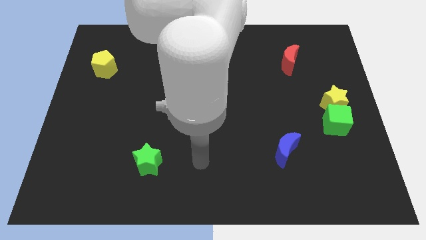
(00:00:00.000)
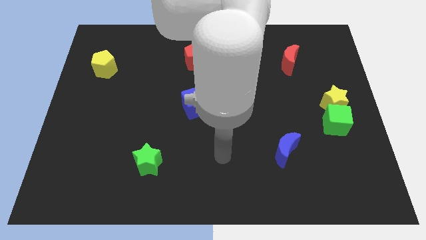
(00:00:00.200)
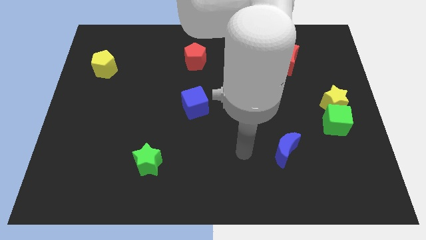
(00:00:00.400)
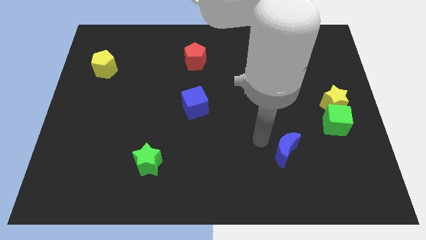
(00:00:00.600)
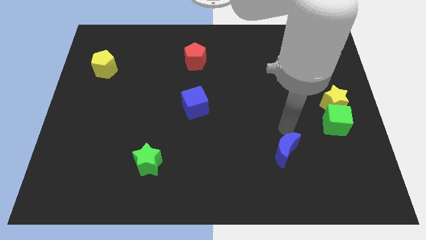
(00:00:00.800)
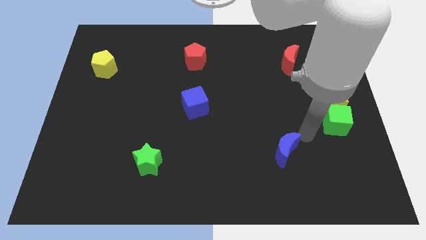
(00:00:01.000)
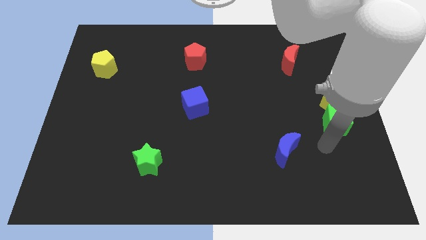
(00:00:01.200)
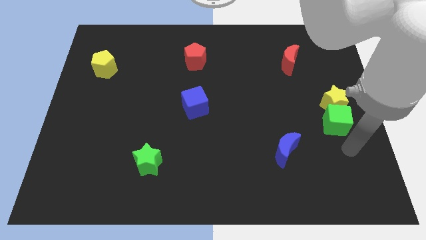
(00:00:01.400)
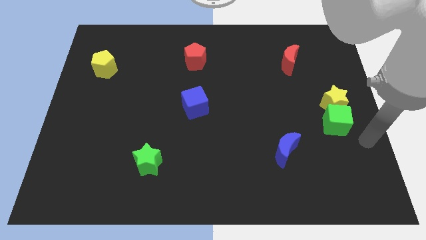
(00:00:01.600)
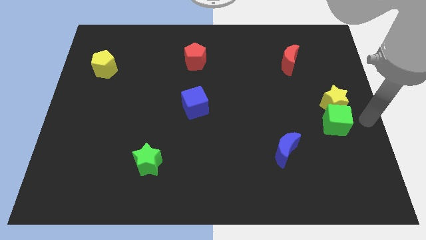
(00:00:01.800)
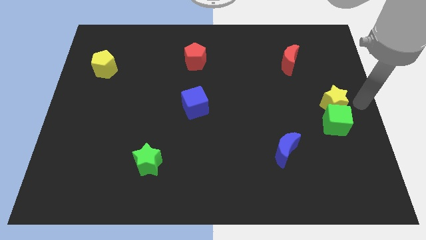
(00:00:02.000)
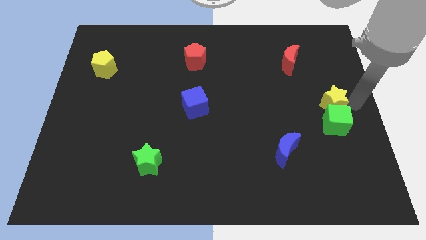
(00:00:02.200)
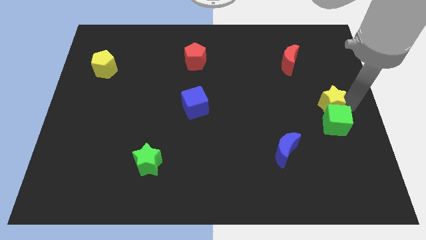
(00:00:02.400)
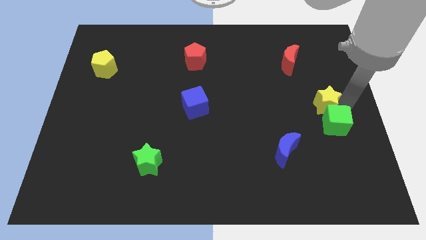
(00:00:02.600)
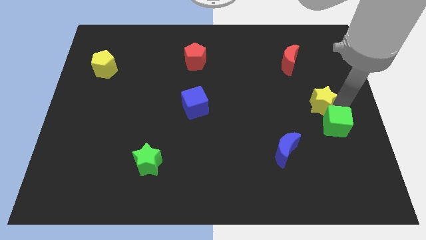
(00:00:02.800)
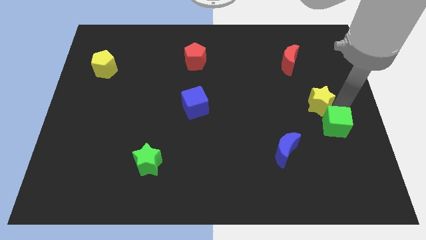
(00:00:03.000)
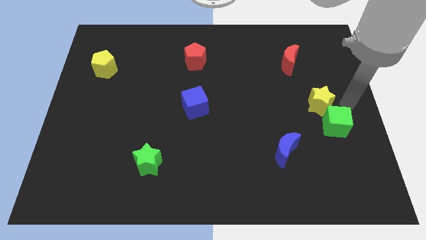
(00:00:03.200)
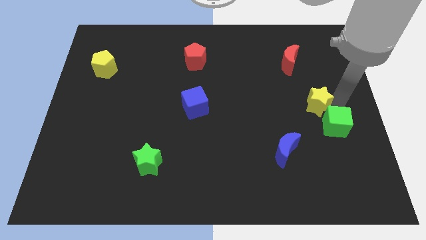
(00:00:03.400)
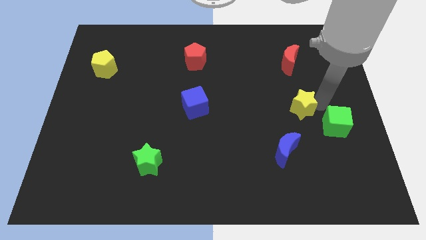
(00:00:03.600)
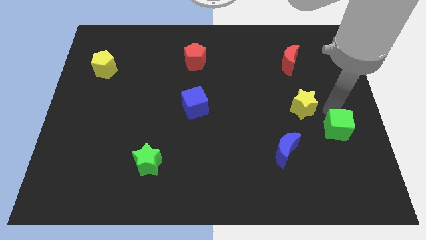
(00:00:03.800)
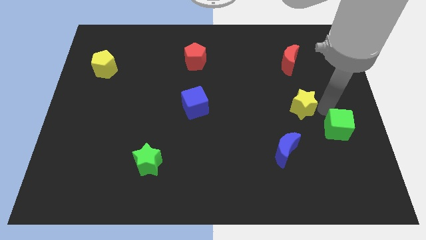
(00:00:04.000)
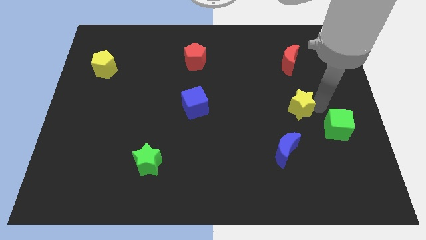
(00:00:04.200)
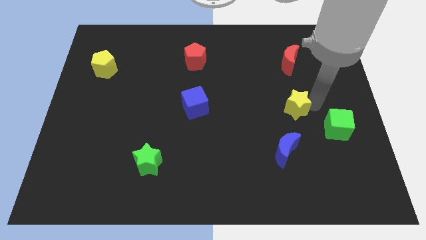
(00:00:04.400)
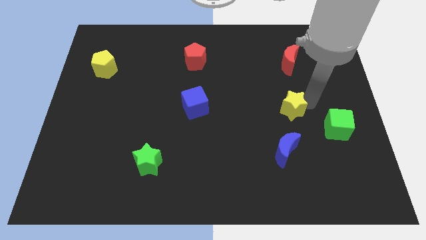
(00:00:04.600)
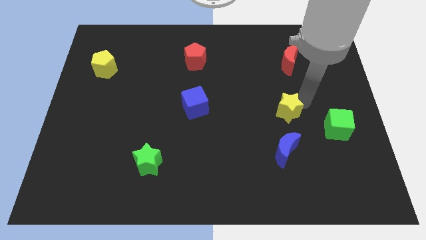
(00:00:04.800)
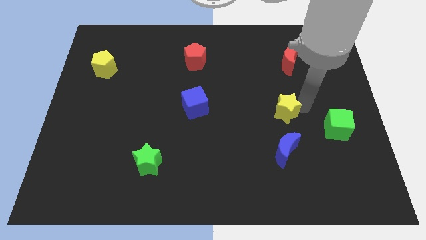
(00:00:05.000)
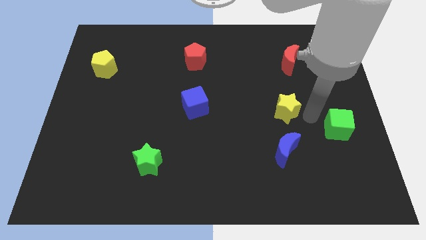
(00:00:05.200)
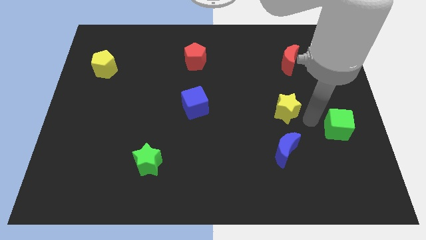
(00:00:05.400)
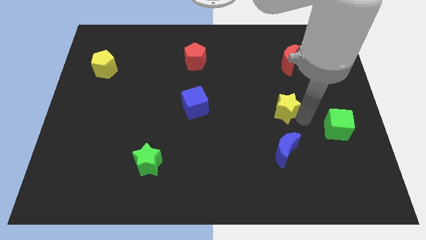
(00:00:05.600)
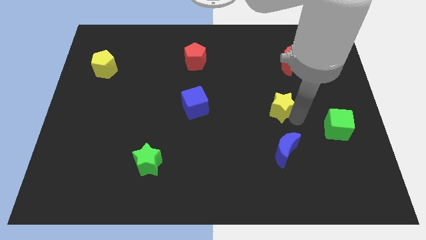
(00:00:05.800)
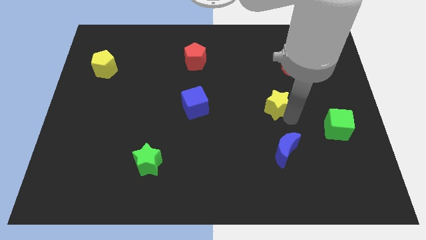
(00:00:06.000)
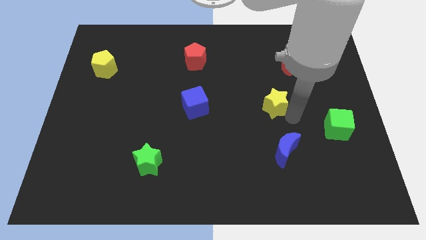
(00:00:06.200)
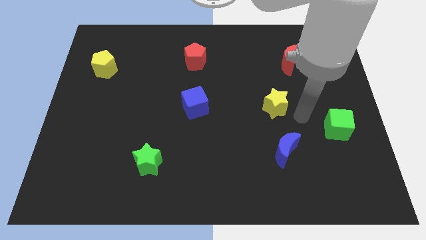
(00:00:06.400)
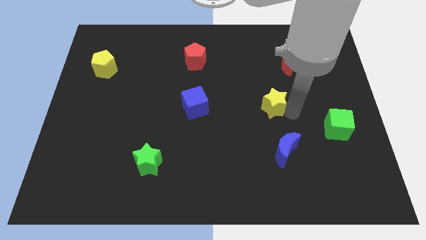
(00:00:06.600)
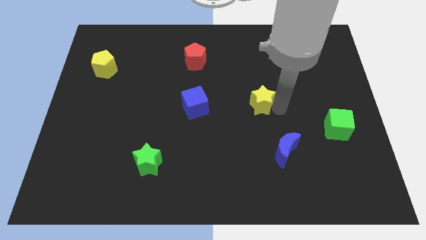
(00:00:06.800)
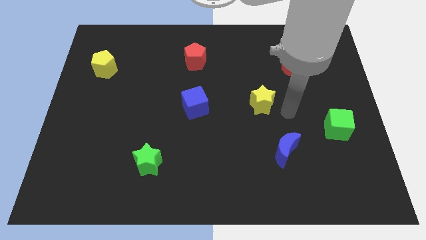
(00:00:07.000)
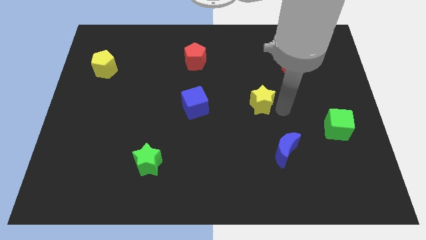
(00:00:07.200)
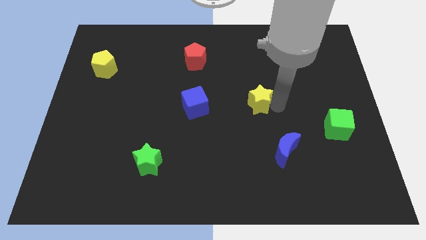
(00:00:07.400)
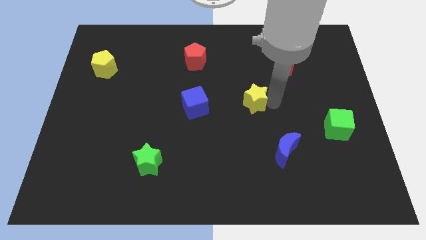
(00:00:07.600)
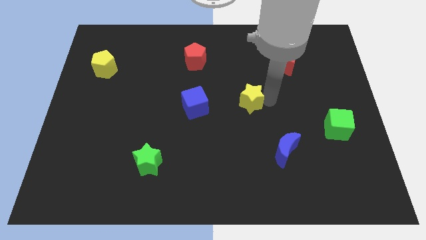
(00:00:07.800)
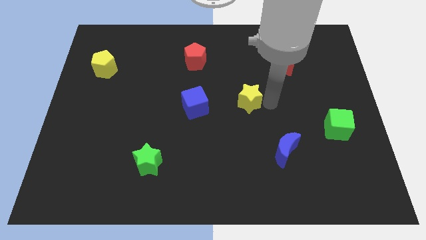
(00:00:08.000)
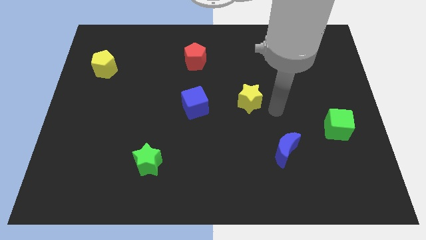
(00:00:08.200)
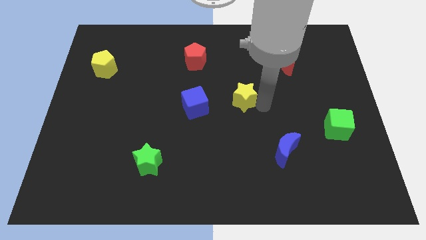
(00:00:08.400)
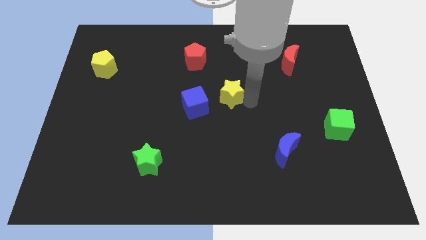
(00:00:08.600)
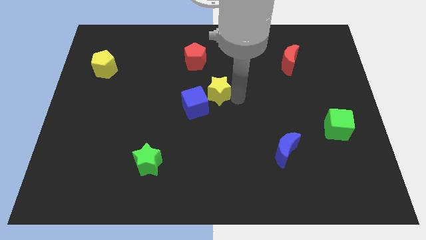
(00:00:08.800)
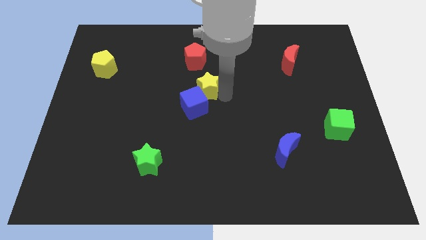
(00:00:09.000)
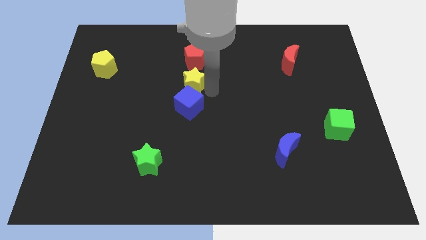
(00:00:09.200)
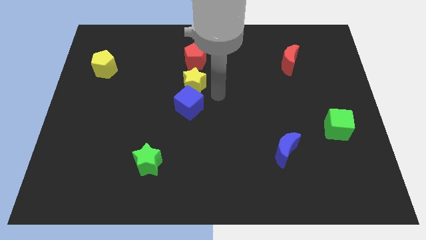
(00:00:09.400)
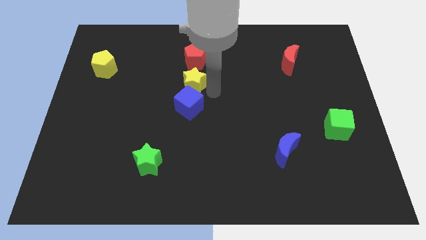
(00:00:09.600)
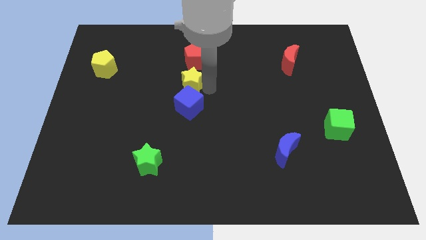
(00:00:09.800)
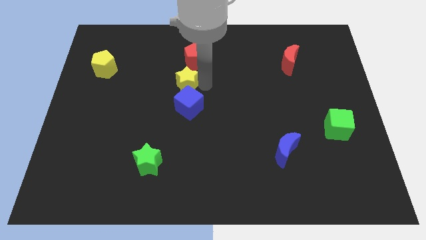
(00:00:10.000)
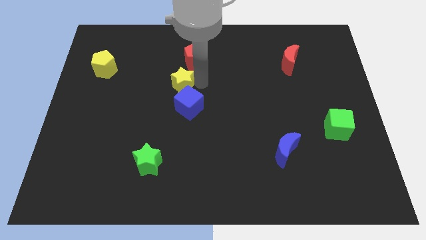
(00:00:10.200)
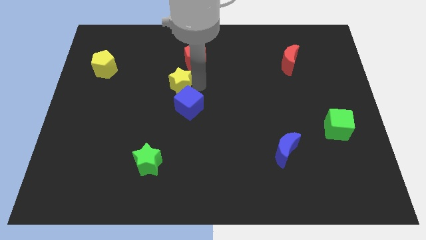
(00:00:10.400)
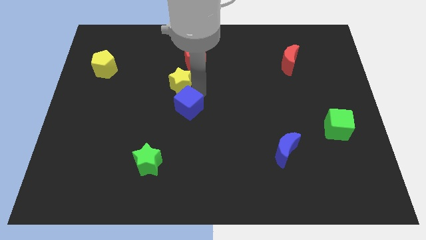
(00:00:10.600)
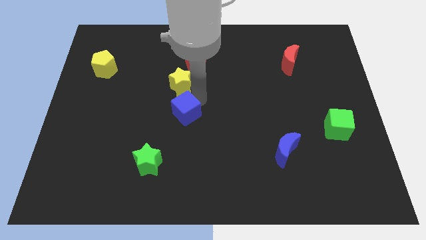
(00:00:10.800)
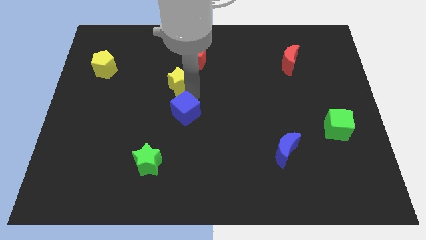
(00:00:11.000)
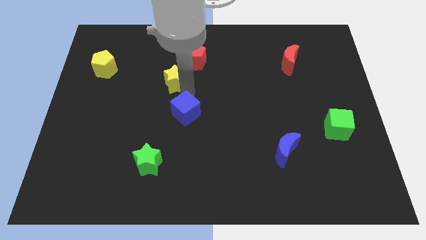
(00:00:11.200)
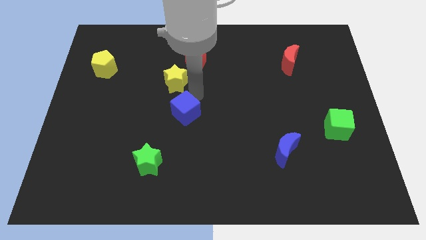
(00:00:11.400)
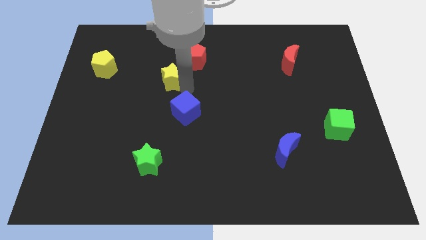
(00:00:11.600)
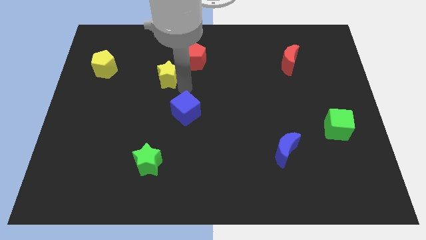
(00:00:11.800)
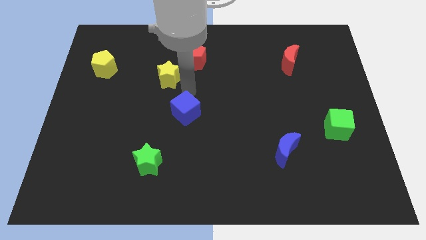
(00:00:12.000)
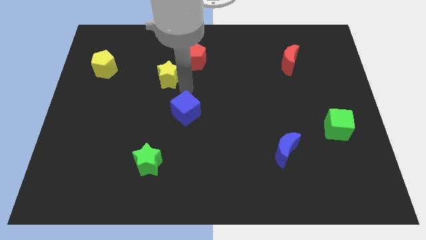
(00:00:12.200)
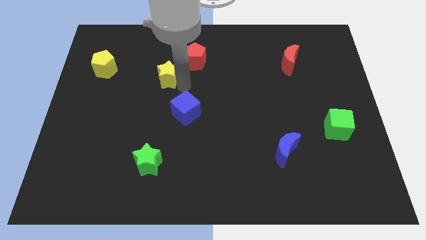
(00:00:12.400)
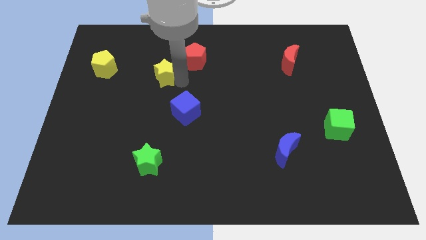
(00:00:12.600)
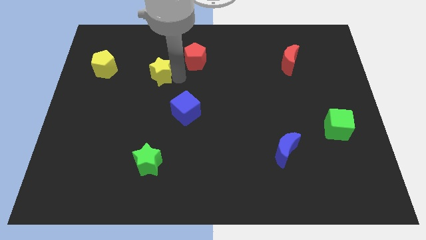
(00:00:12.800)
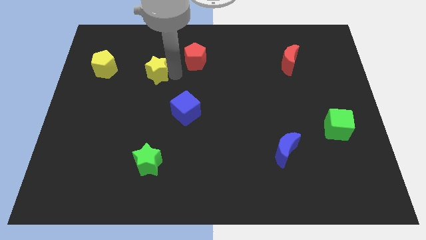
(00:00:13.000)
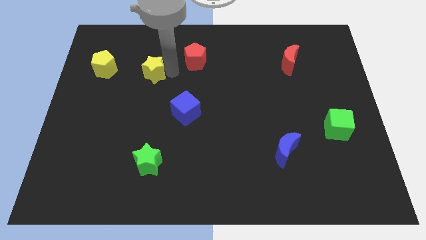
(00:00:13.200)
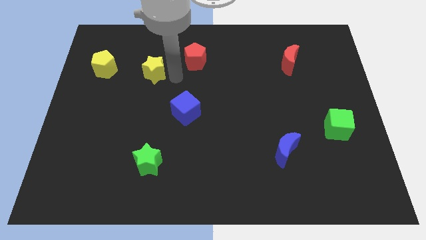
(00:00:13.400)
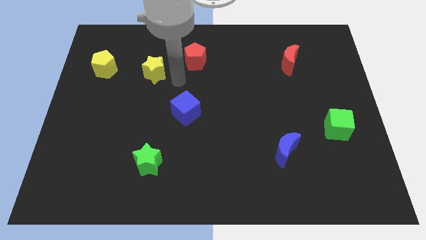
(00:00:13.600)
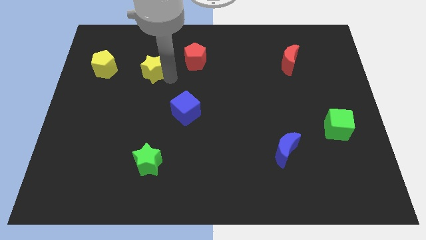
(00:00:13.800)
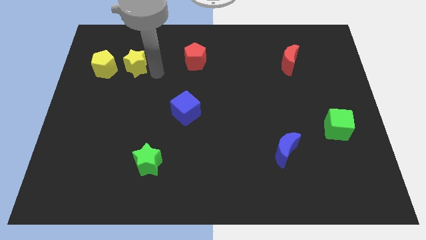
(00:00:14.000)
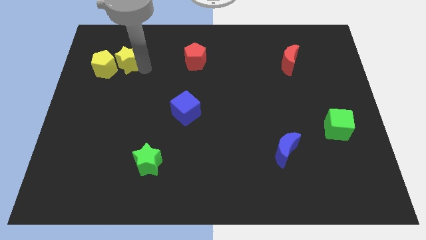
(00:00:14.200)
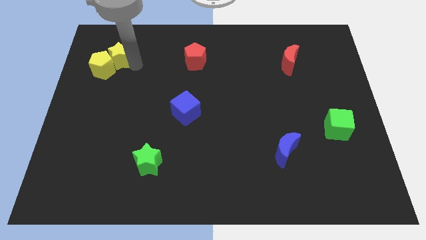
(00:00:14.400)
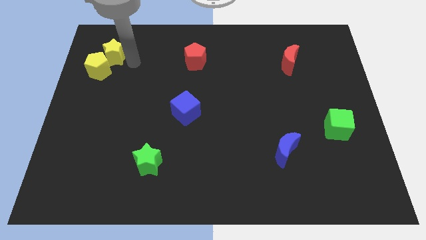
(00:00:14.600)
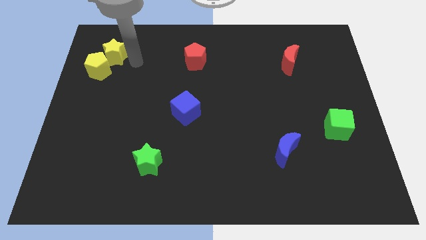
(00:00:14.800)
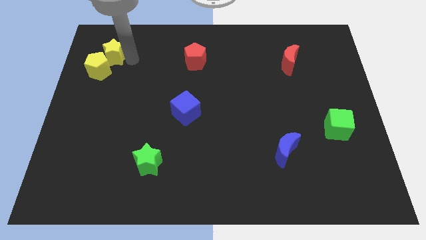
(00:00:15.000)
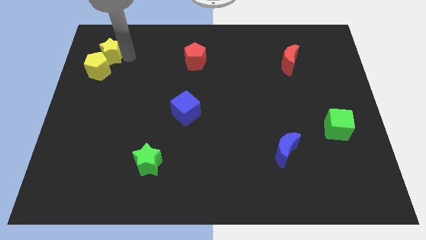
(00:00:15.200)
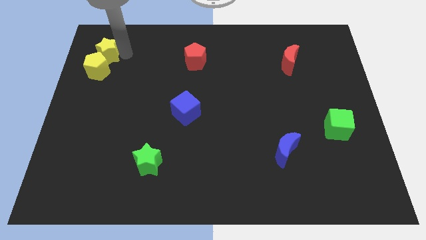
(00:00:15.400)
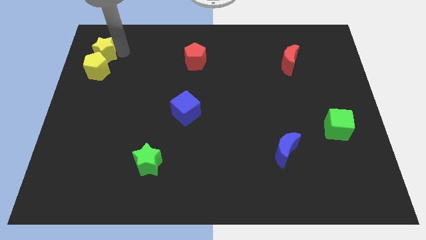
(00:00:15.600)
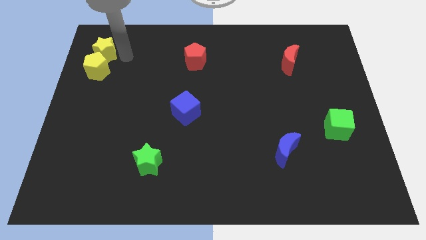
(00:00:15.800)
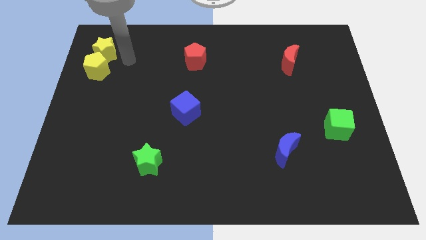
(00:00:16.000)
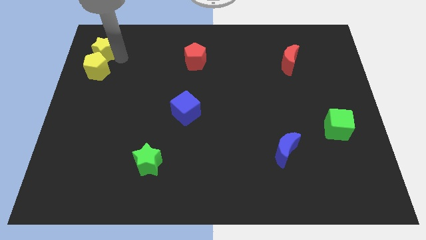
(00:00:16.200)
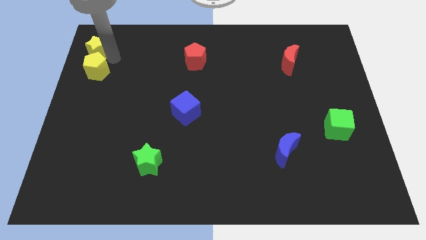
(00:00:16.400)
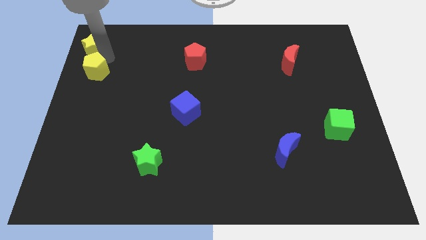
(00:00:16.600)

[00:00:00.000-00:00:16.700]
slide the yellow star to the top left corner
